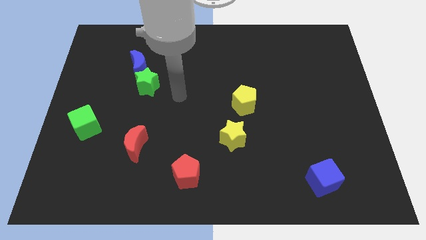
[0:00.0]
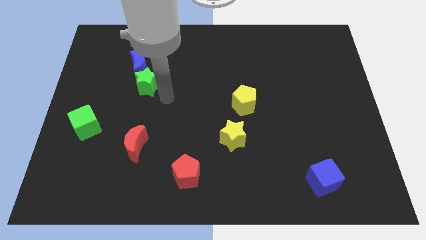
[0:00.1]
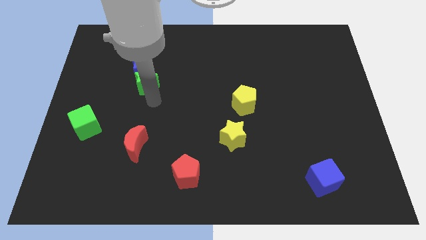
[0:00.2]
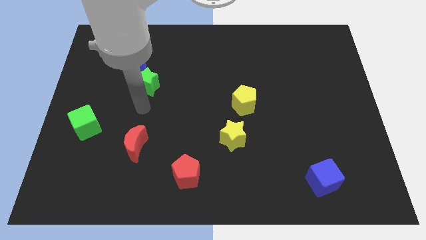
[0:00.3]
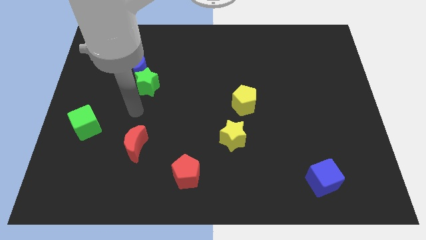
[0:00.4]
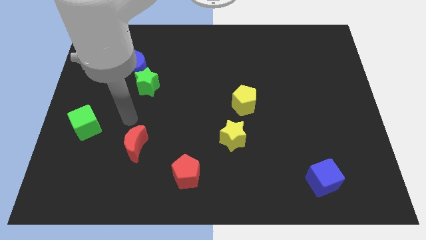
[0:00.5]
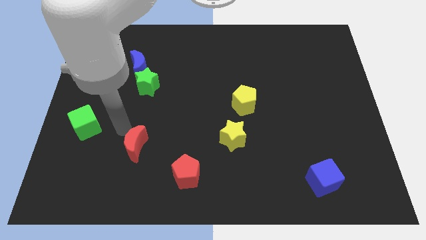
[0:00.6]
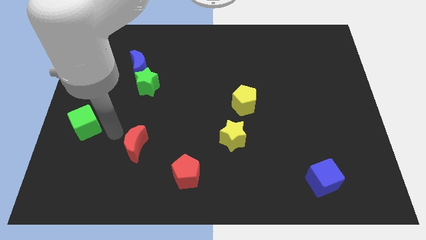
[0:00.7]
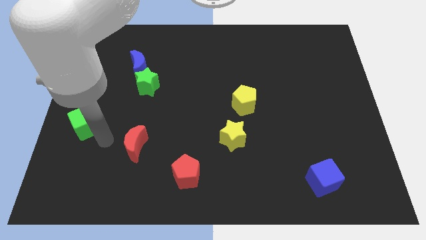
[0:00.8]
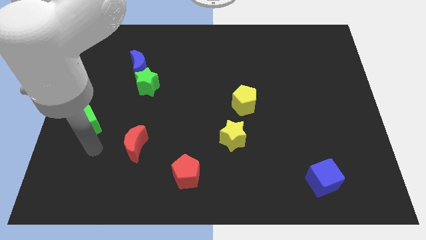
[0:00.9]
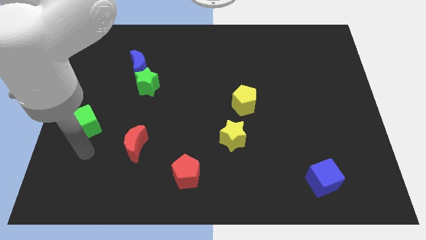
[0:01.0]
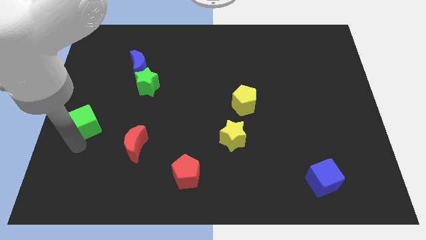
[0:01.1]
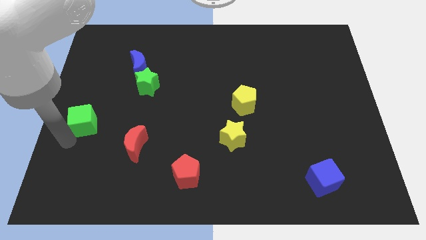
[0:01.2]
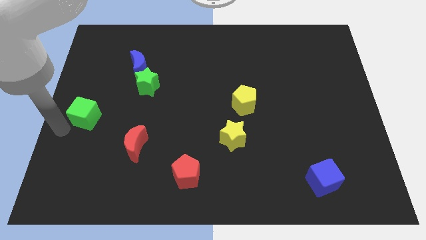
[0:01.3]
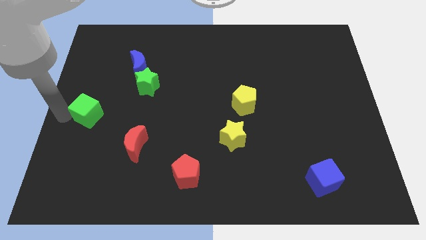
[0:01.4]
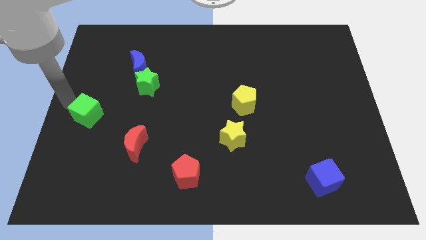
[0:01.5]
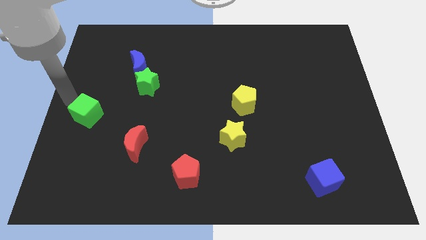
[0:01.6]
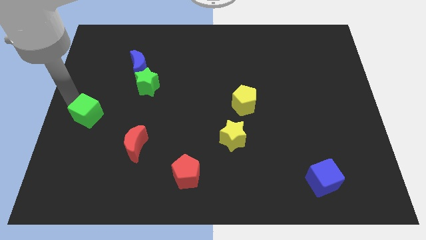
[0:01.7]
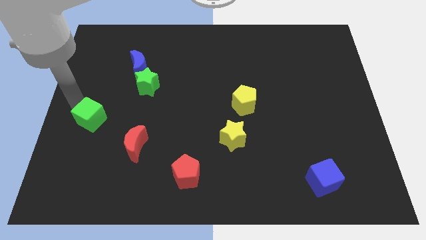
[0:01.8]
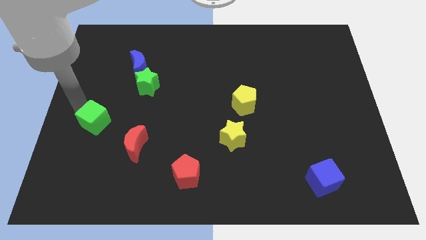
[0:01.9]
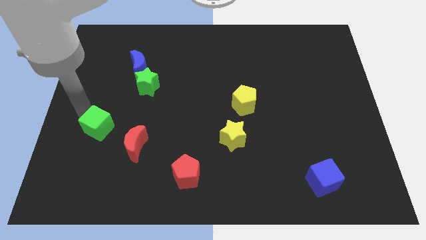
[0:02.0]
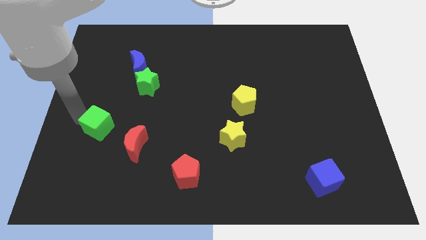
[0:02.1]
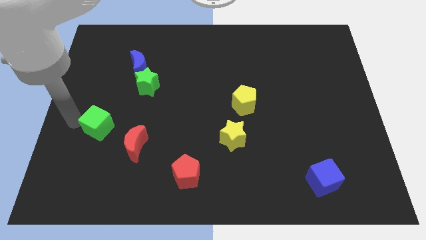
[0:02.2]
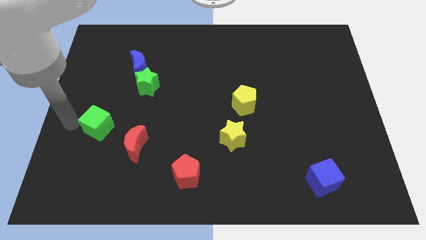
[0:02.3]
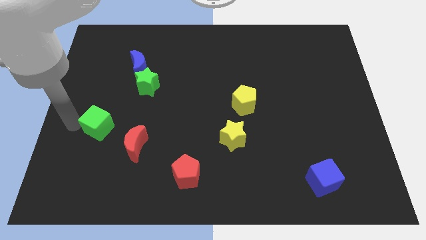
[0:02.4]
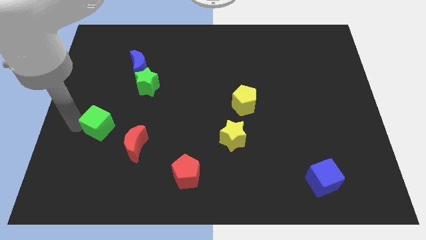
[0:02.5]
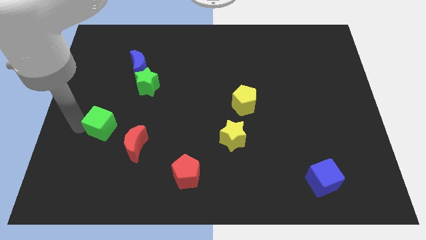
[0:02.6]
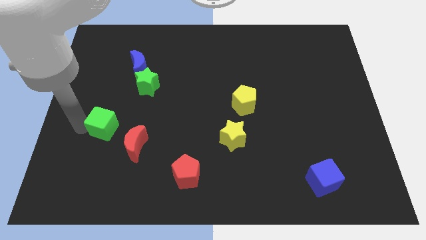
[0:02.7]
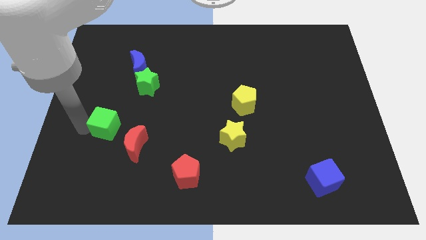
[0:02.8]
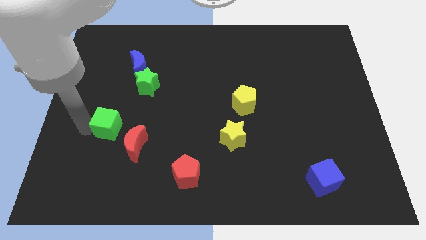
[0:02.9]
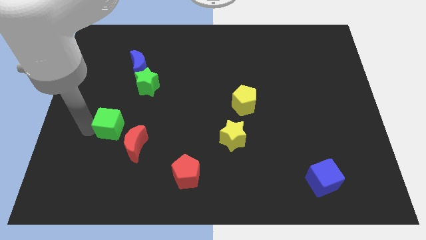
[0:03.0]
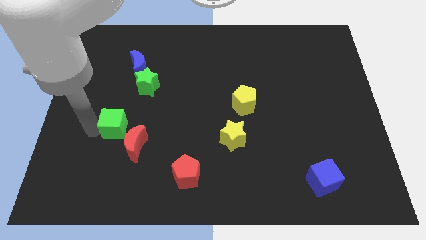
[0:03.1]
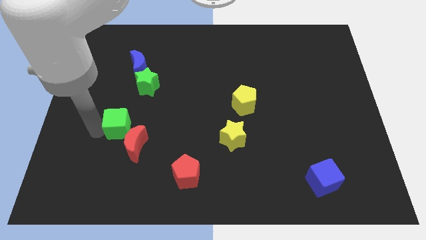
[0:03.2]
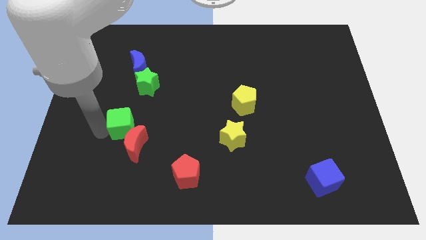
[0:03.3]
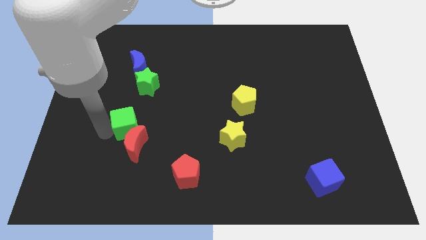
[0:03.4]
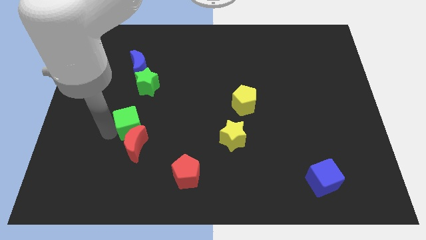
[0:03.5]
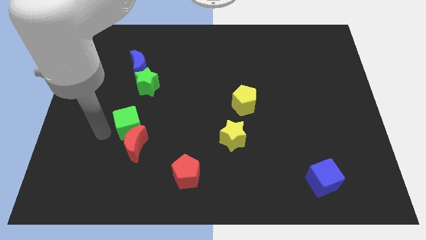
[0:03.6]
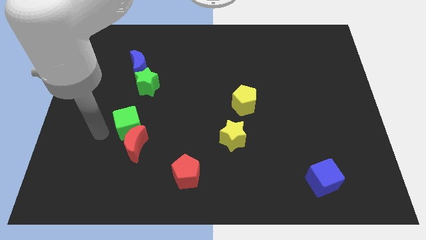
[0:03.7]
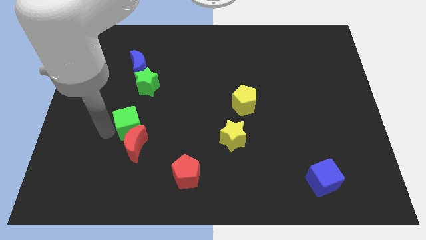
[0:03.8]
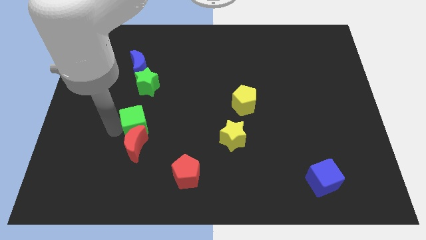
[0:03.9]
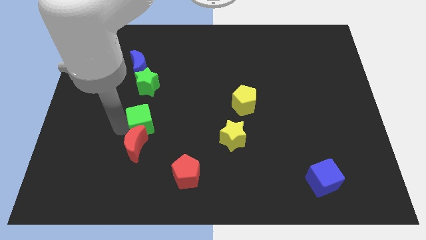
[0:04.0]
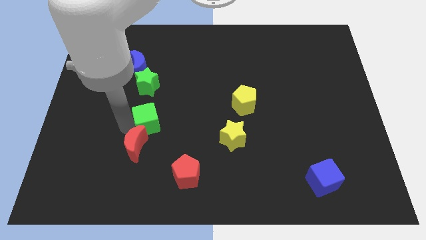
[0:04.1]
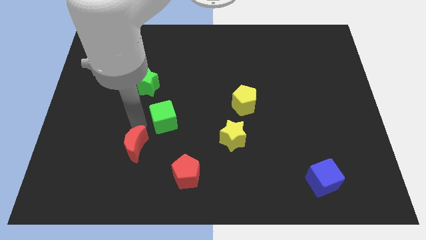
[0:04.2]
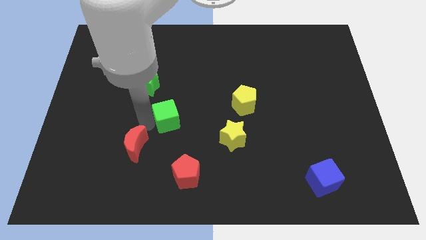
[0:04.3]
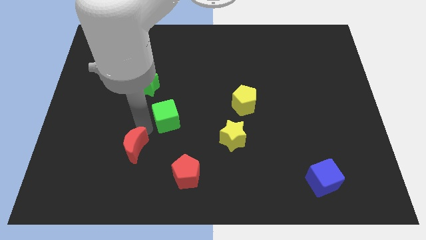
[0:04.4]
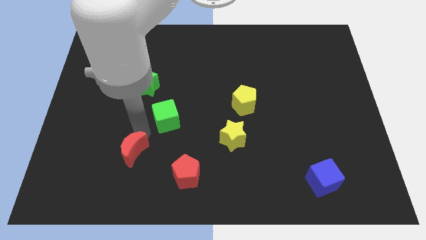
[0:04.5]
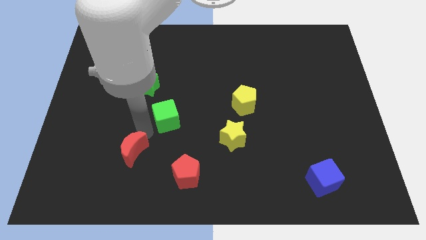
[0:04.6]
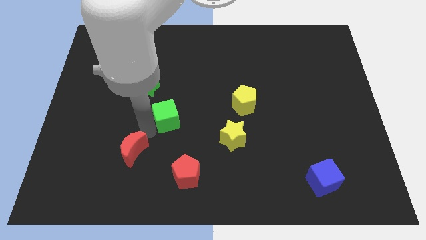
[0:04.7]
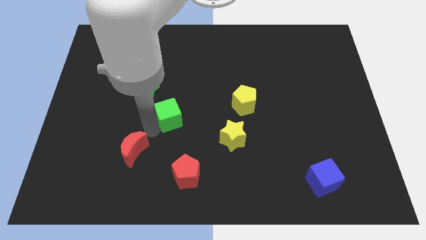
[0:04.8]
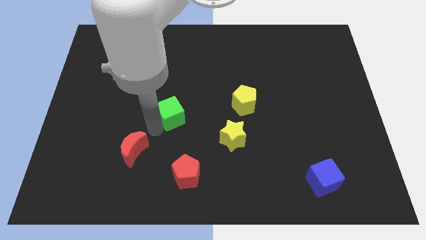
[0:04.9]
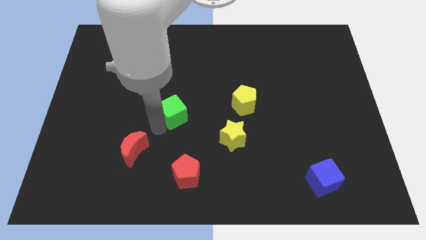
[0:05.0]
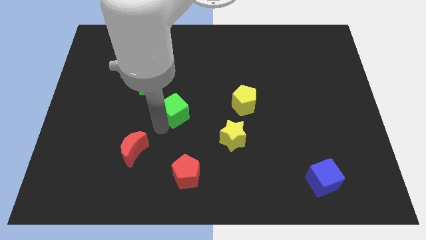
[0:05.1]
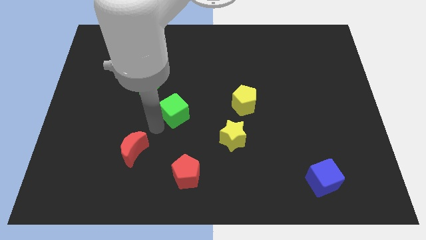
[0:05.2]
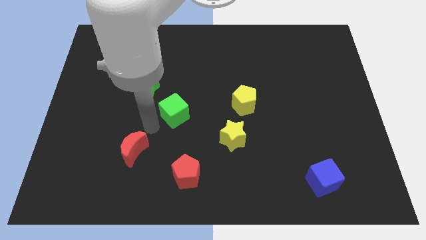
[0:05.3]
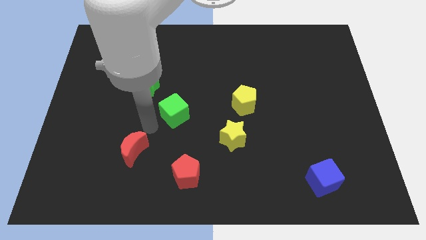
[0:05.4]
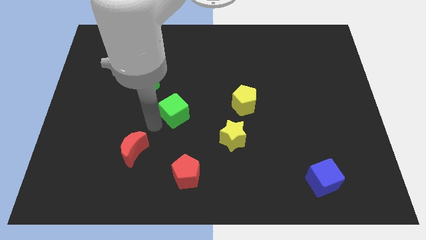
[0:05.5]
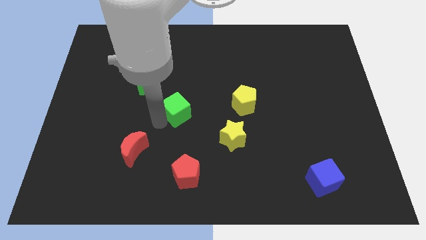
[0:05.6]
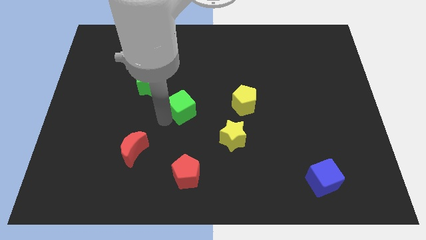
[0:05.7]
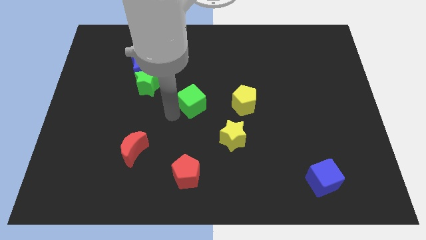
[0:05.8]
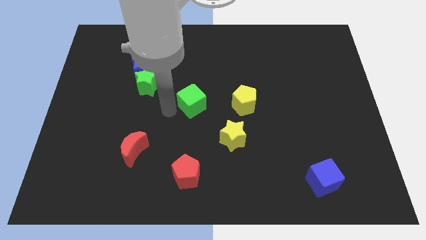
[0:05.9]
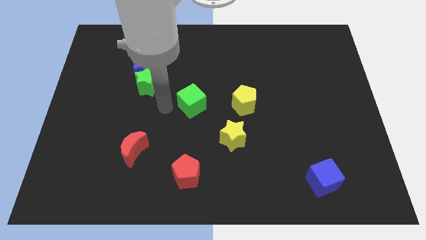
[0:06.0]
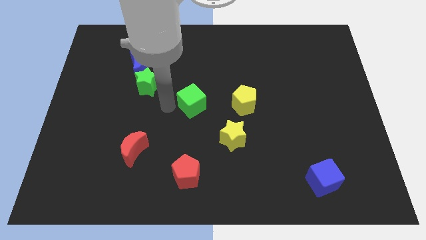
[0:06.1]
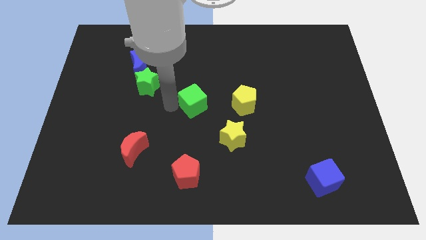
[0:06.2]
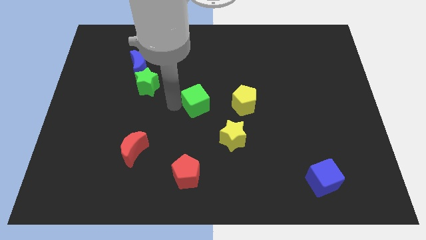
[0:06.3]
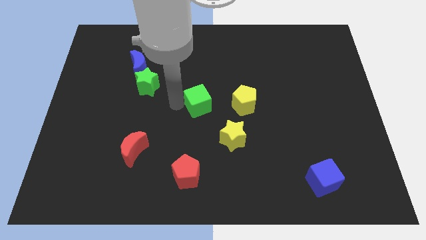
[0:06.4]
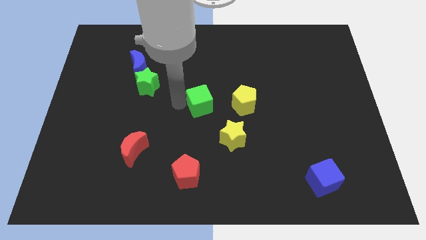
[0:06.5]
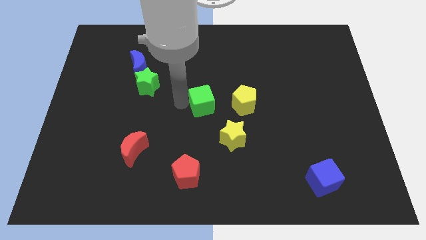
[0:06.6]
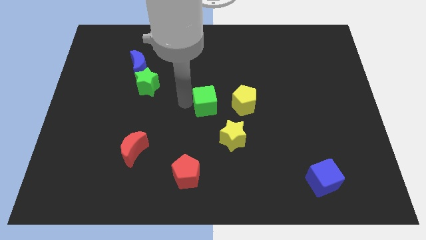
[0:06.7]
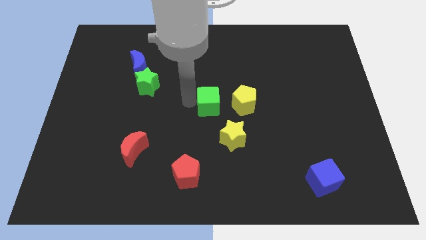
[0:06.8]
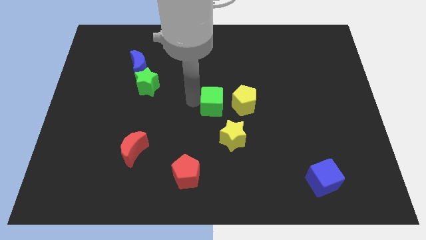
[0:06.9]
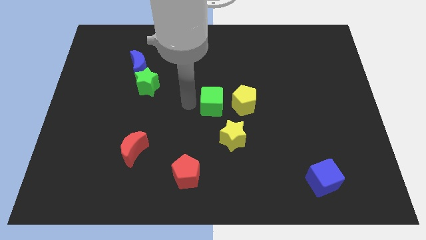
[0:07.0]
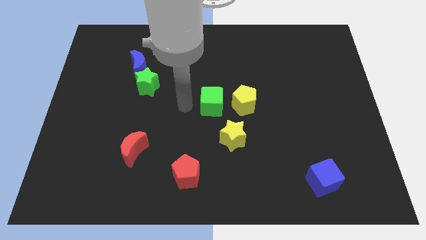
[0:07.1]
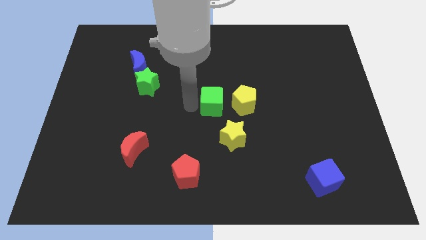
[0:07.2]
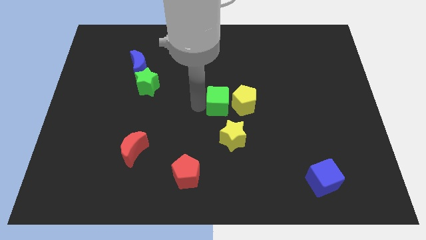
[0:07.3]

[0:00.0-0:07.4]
slide the green cube next to the yellow pentagon
